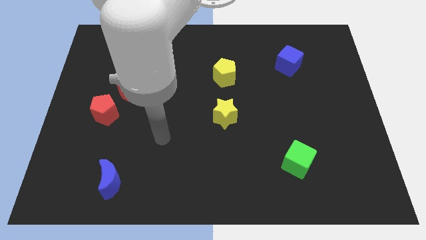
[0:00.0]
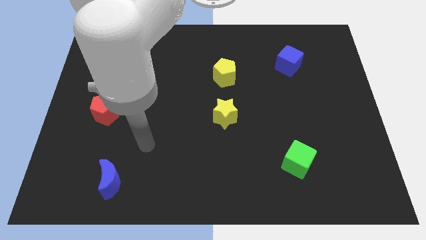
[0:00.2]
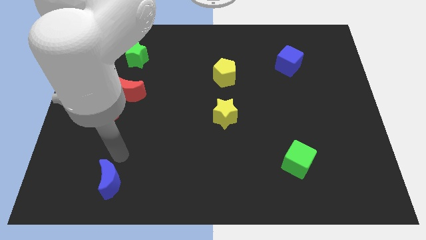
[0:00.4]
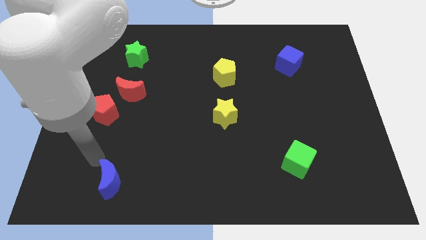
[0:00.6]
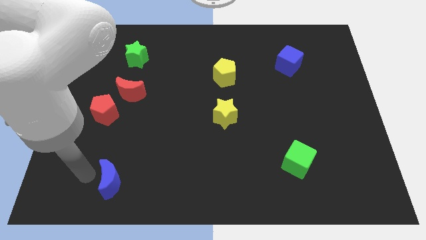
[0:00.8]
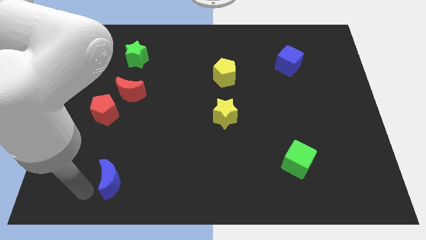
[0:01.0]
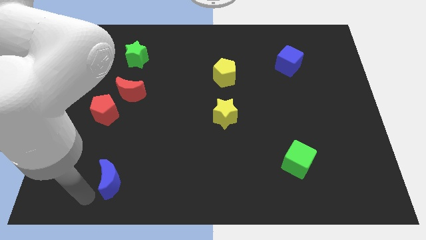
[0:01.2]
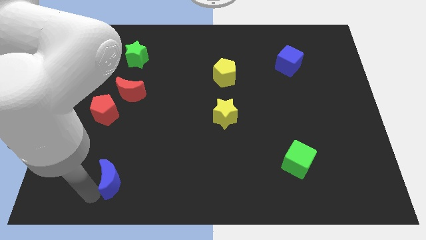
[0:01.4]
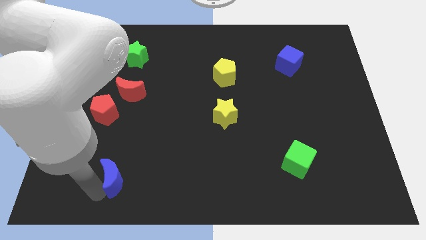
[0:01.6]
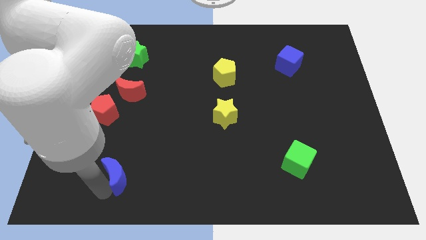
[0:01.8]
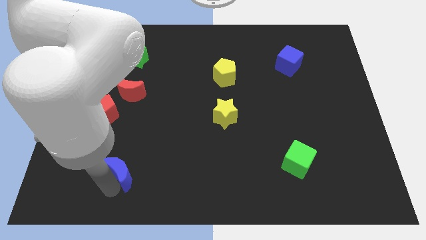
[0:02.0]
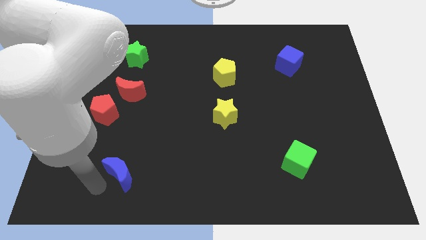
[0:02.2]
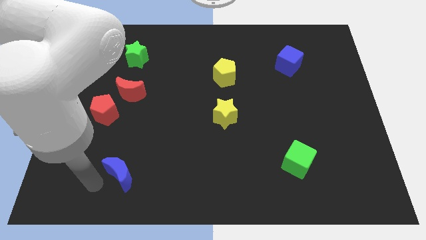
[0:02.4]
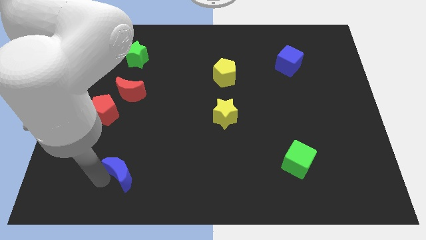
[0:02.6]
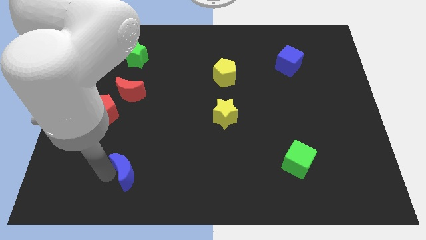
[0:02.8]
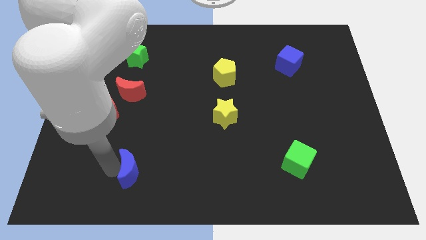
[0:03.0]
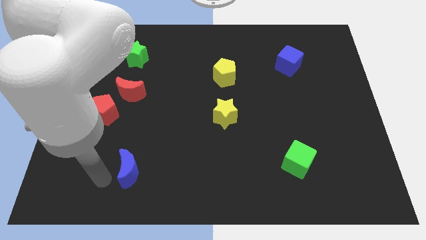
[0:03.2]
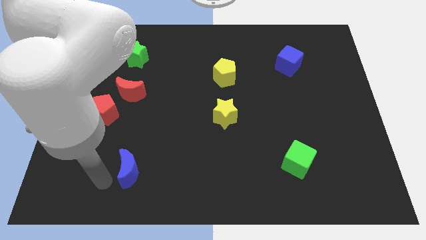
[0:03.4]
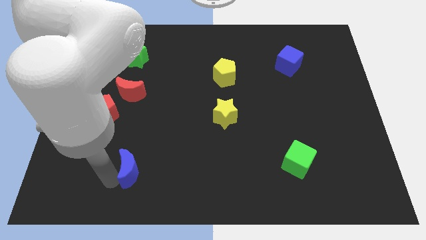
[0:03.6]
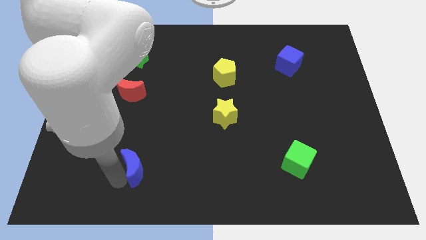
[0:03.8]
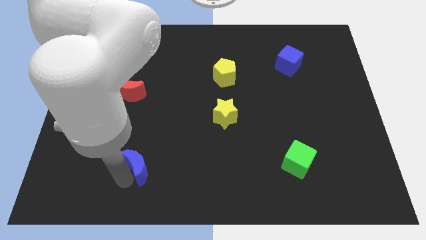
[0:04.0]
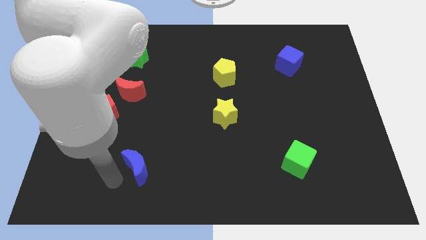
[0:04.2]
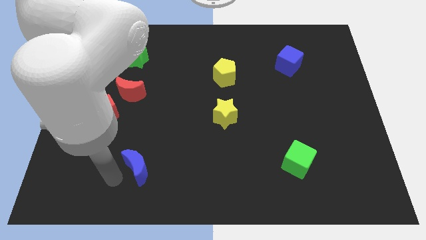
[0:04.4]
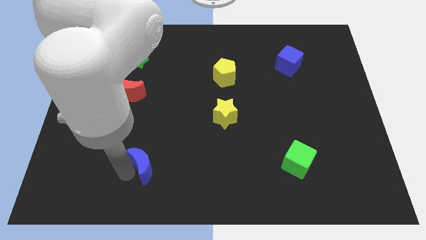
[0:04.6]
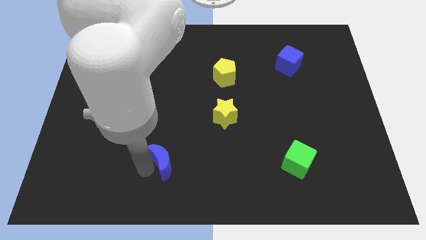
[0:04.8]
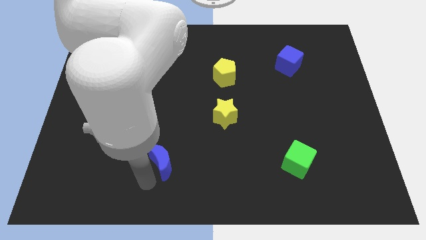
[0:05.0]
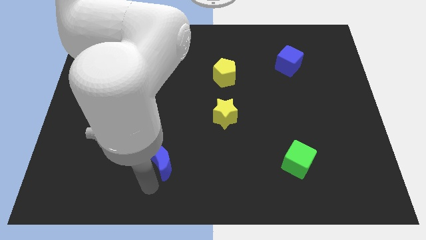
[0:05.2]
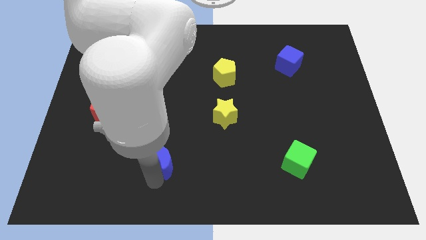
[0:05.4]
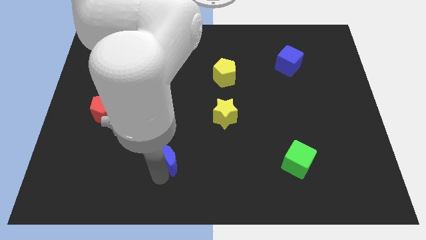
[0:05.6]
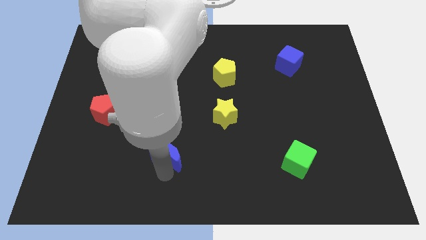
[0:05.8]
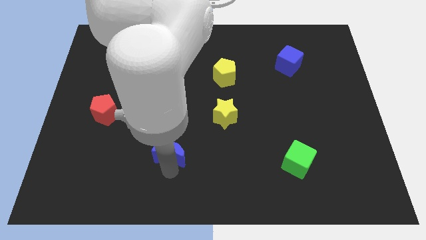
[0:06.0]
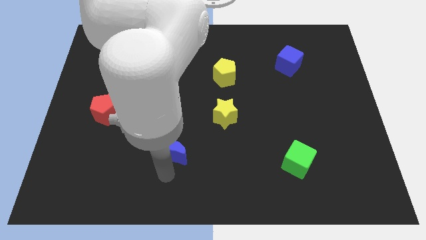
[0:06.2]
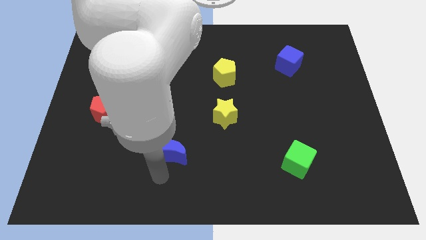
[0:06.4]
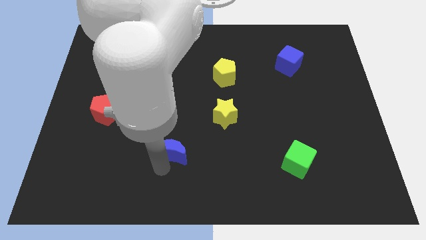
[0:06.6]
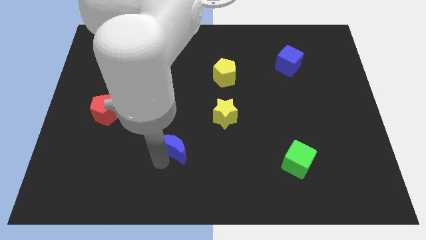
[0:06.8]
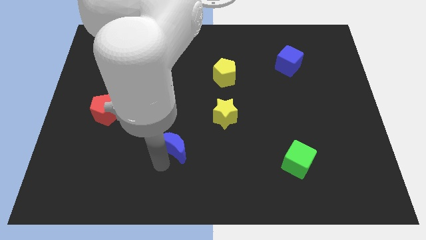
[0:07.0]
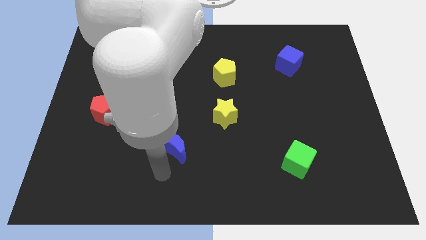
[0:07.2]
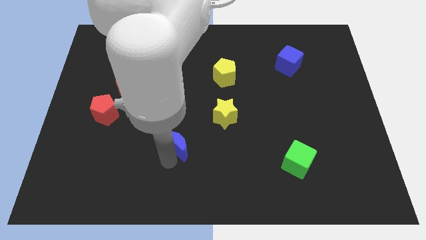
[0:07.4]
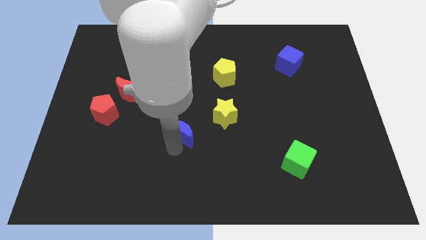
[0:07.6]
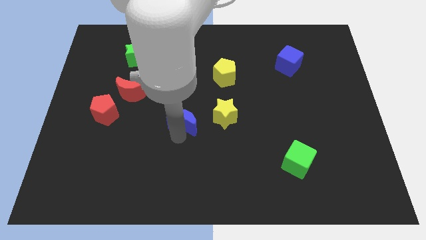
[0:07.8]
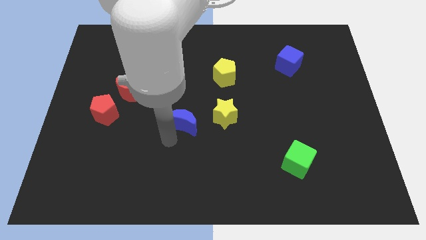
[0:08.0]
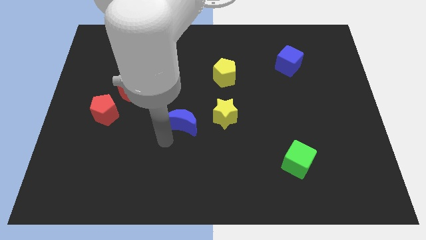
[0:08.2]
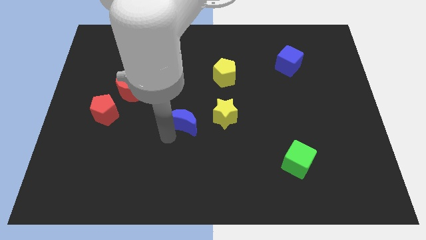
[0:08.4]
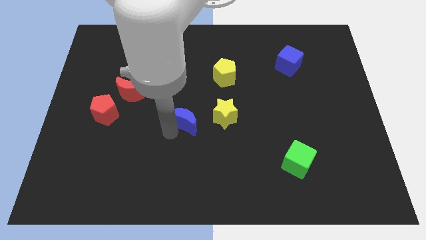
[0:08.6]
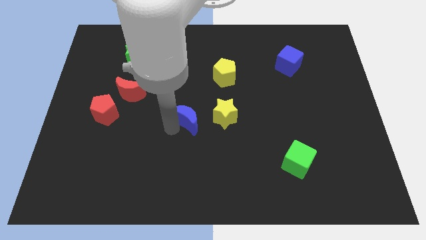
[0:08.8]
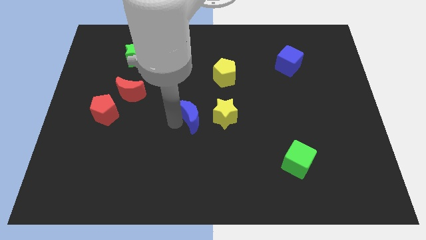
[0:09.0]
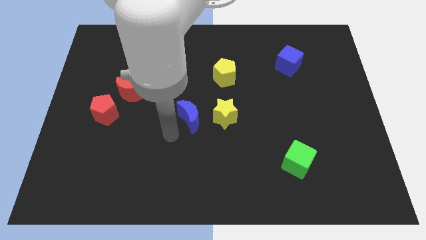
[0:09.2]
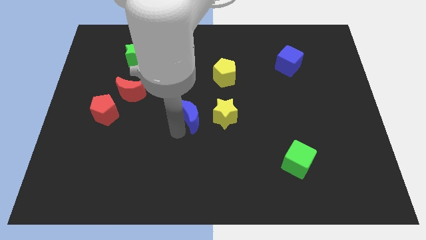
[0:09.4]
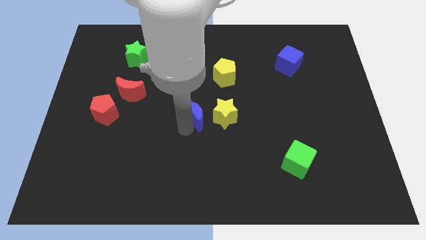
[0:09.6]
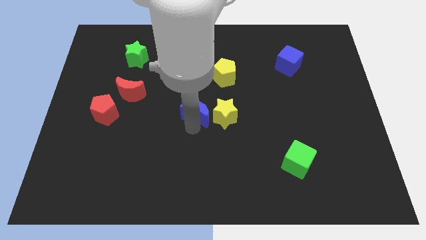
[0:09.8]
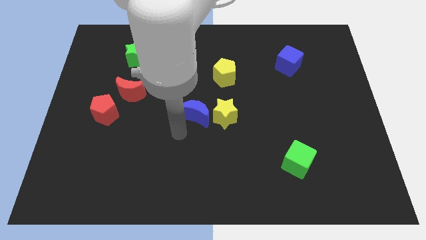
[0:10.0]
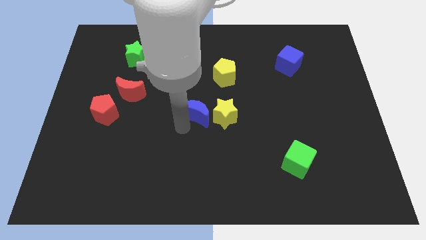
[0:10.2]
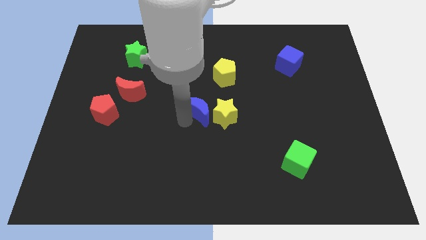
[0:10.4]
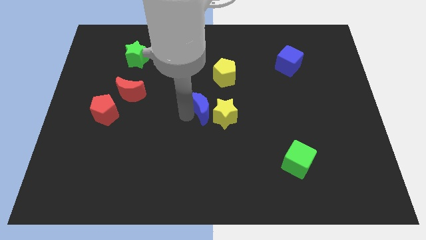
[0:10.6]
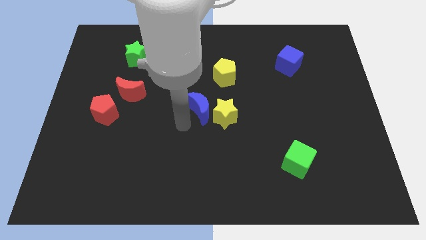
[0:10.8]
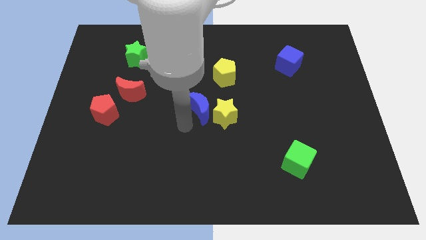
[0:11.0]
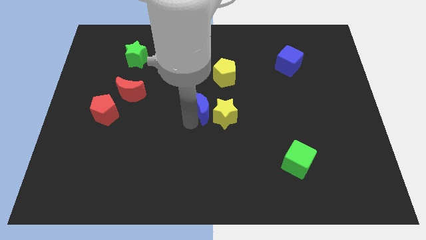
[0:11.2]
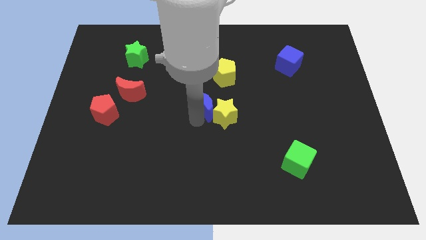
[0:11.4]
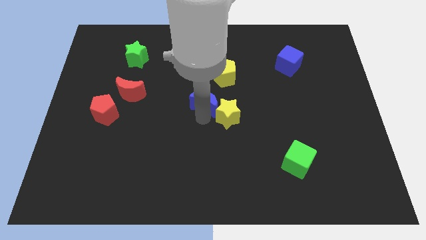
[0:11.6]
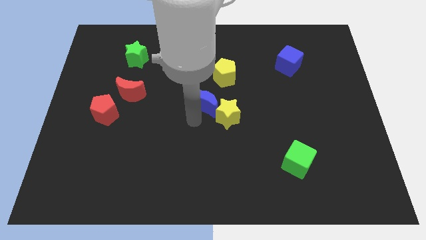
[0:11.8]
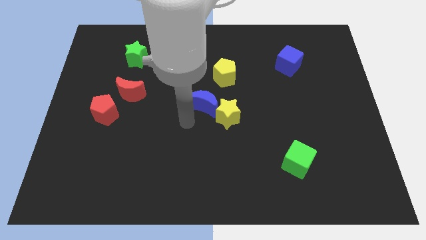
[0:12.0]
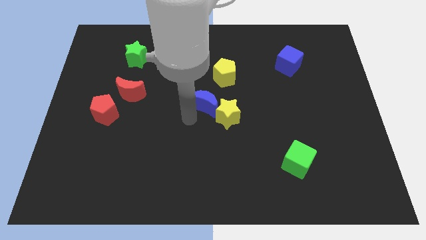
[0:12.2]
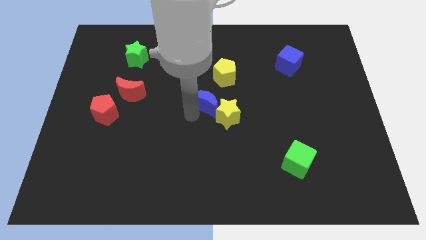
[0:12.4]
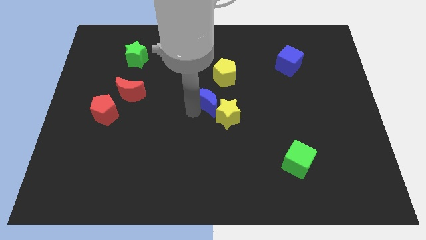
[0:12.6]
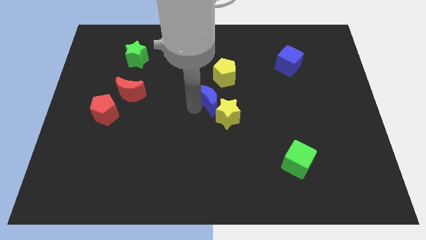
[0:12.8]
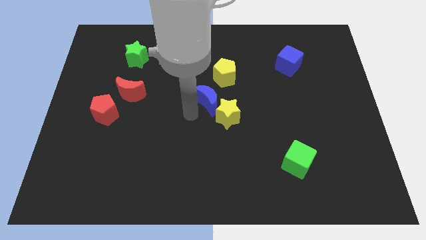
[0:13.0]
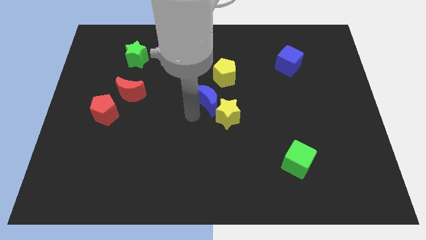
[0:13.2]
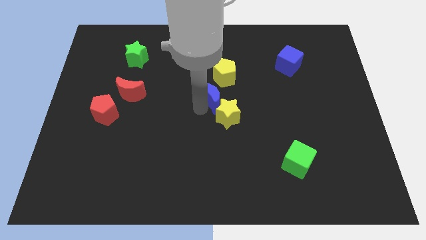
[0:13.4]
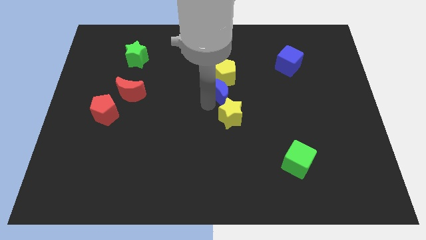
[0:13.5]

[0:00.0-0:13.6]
move the blue moon close to the yellow pentagon

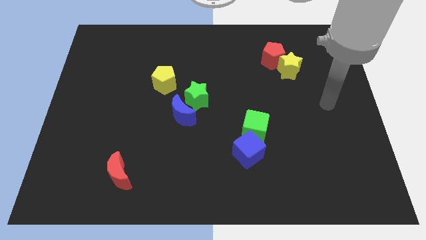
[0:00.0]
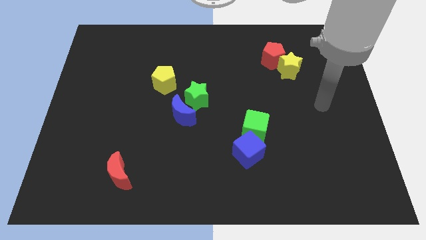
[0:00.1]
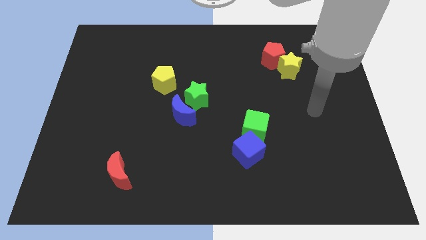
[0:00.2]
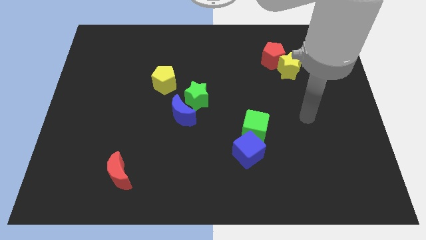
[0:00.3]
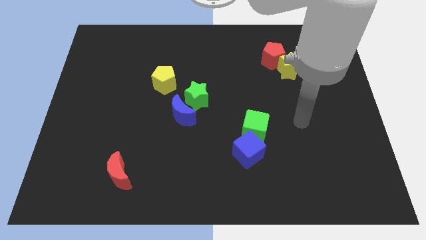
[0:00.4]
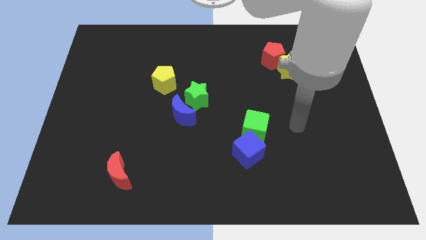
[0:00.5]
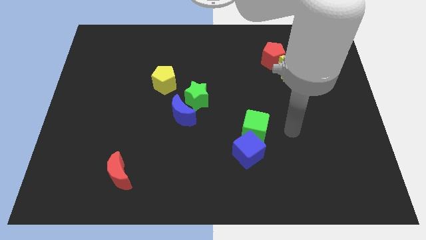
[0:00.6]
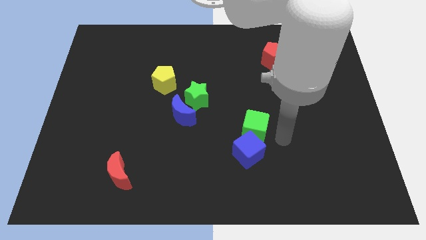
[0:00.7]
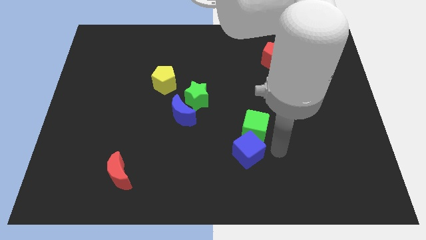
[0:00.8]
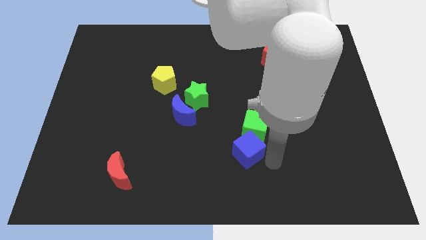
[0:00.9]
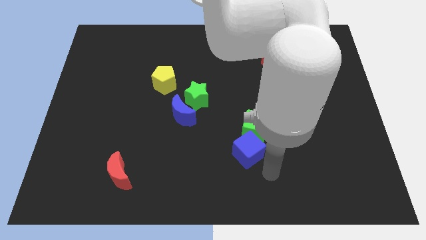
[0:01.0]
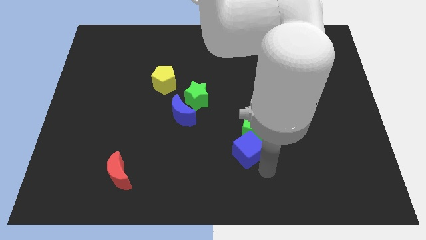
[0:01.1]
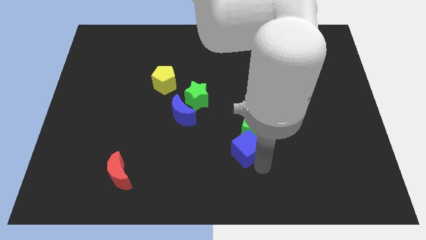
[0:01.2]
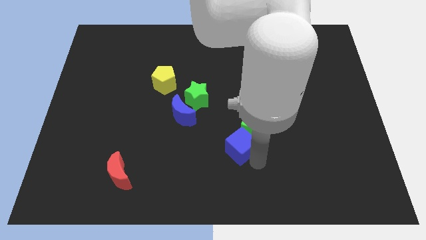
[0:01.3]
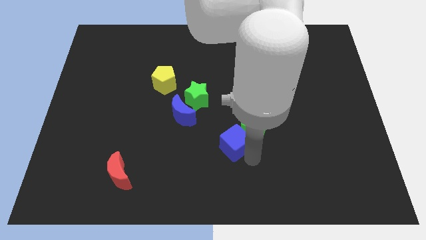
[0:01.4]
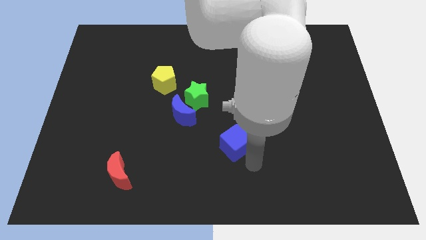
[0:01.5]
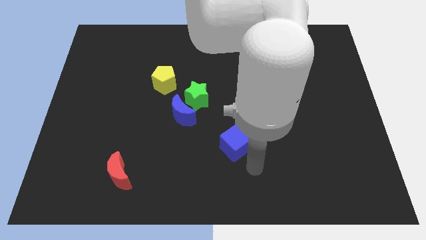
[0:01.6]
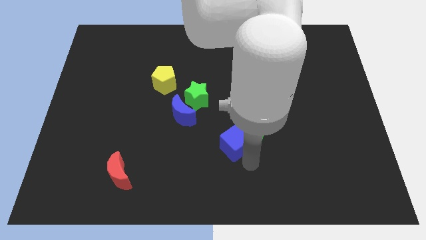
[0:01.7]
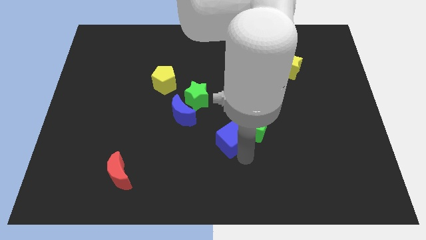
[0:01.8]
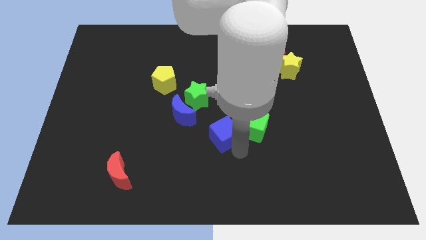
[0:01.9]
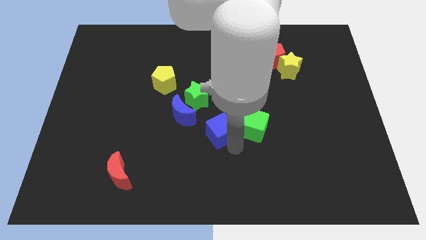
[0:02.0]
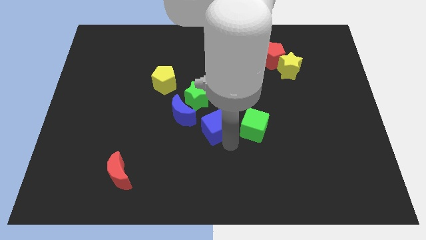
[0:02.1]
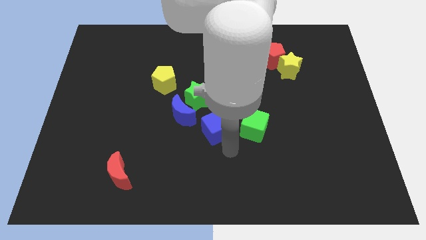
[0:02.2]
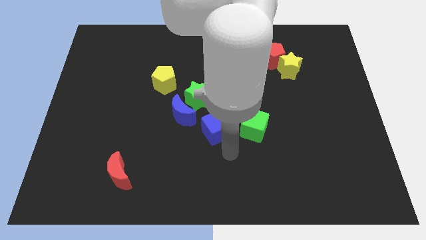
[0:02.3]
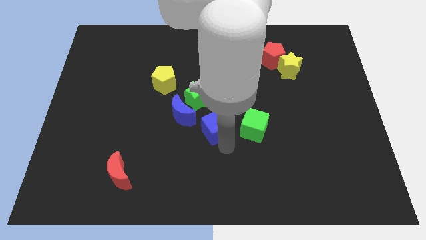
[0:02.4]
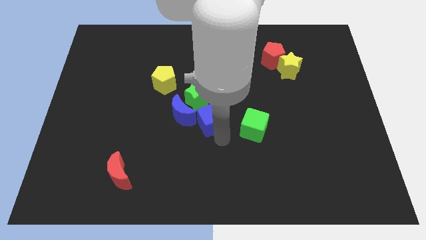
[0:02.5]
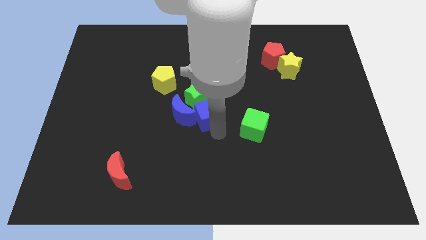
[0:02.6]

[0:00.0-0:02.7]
slide the blue cube towards the green star
